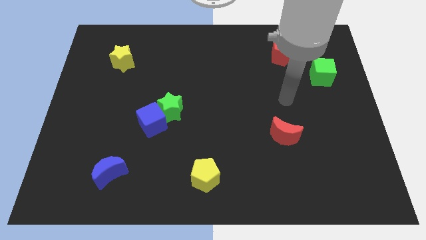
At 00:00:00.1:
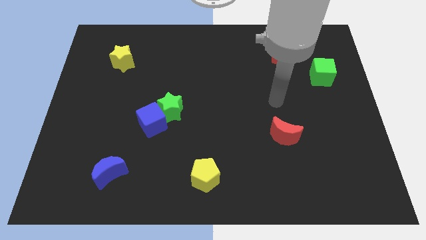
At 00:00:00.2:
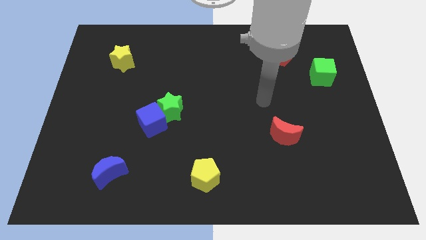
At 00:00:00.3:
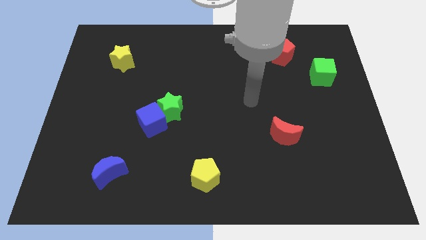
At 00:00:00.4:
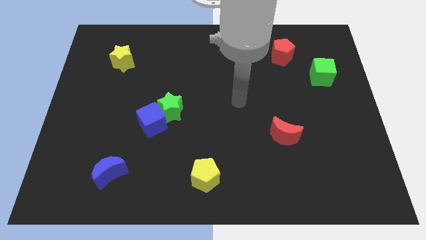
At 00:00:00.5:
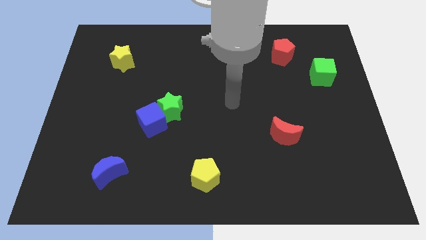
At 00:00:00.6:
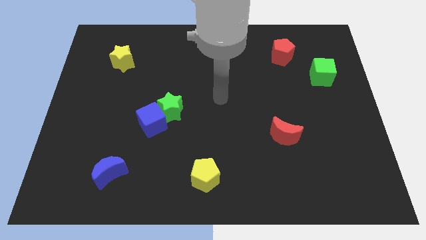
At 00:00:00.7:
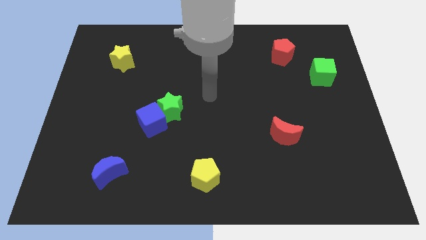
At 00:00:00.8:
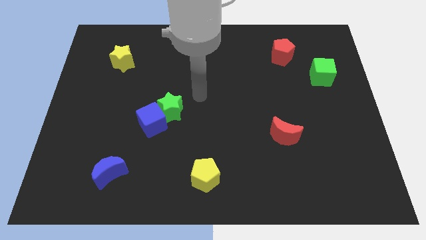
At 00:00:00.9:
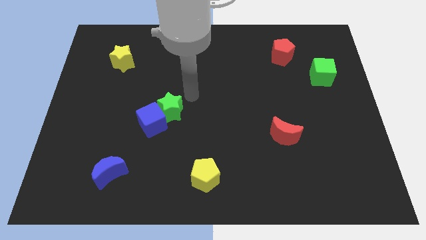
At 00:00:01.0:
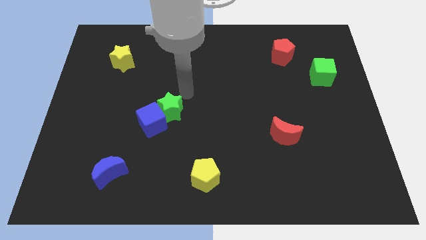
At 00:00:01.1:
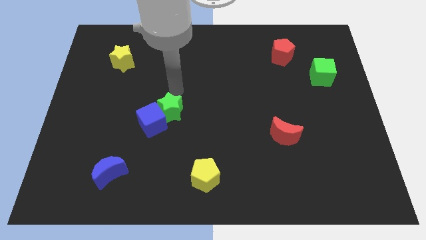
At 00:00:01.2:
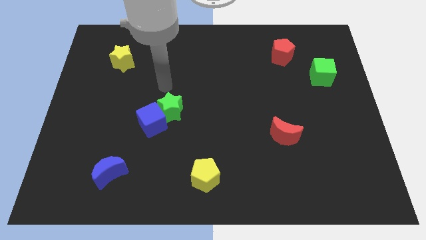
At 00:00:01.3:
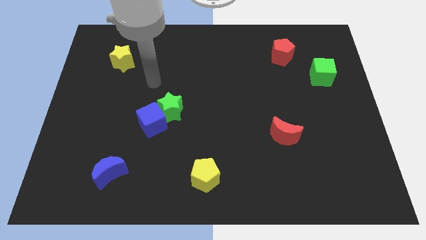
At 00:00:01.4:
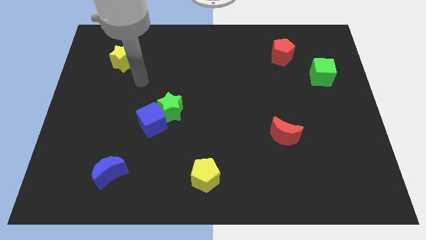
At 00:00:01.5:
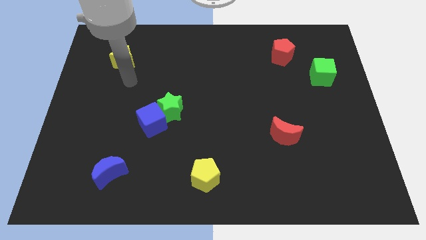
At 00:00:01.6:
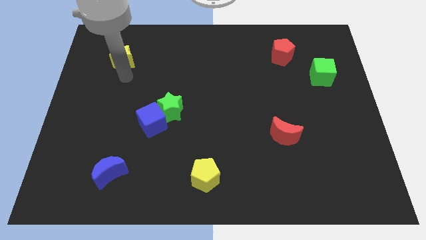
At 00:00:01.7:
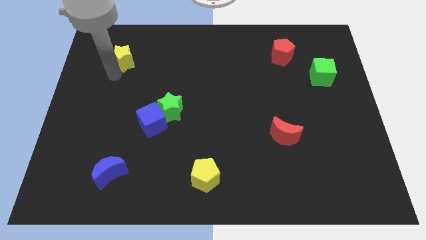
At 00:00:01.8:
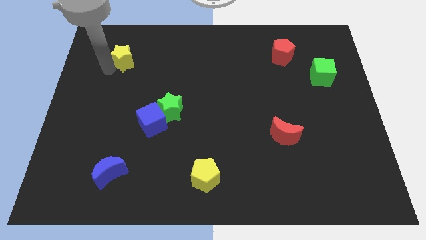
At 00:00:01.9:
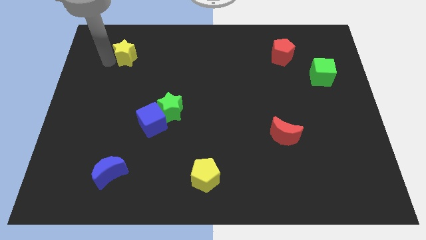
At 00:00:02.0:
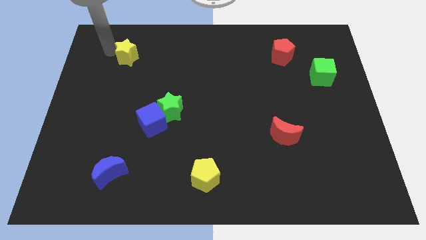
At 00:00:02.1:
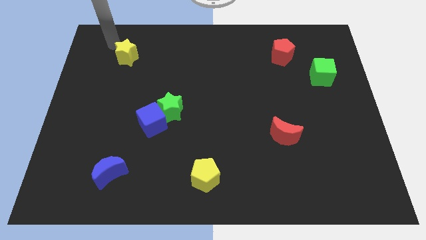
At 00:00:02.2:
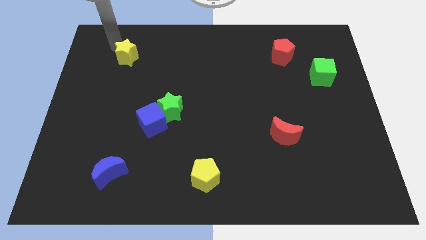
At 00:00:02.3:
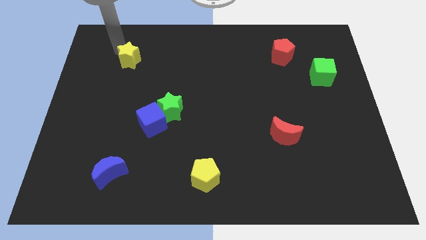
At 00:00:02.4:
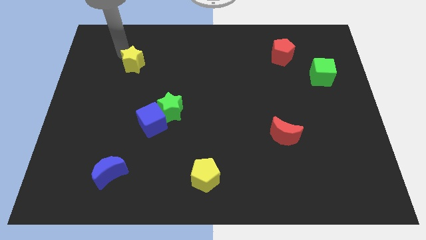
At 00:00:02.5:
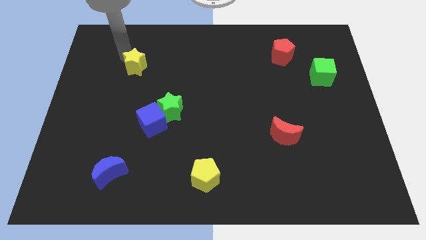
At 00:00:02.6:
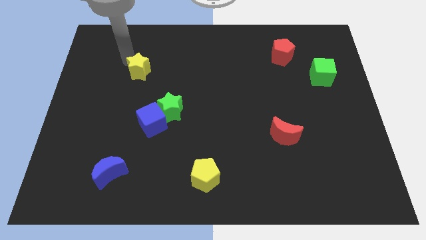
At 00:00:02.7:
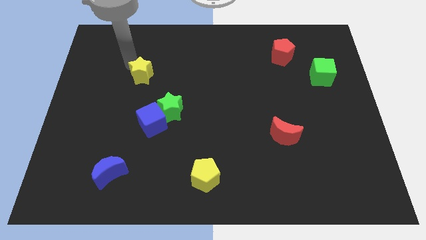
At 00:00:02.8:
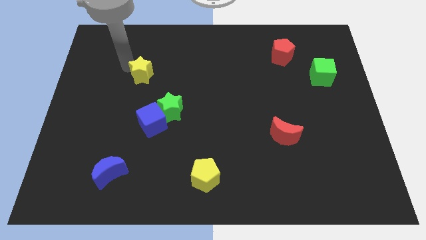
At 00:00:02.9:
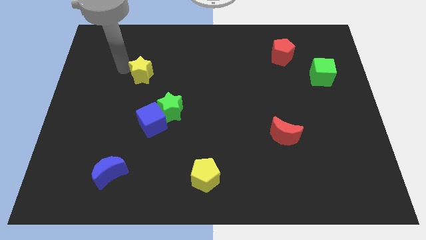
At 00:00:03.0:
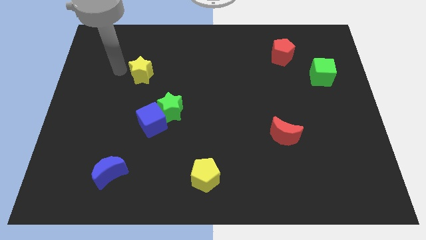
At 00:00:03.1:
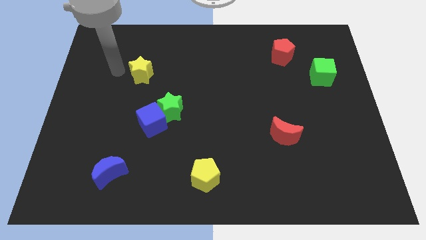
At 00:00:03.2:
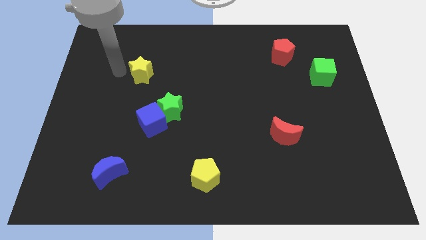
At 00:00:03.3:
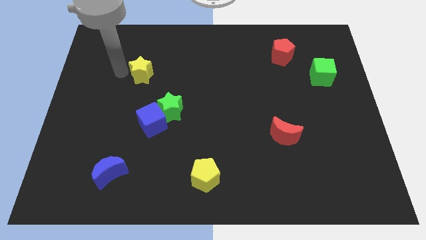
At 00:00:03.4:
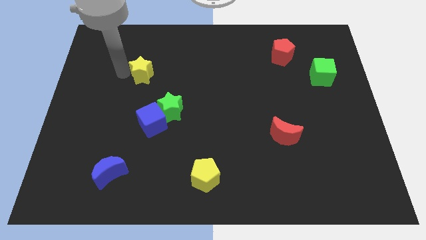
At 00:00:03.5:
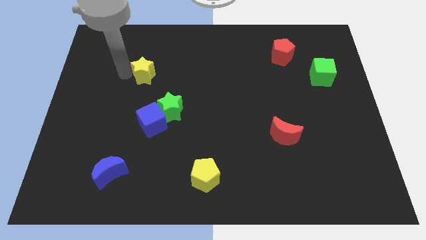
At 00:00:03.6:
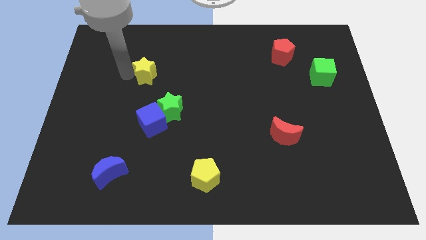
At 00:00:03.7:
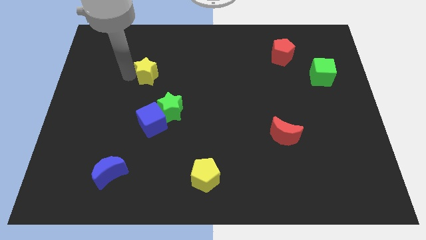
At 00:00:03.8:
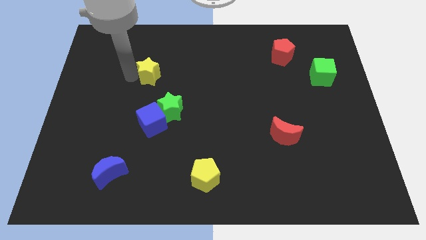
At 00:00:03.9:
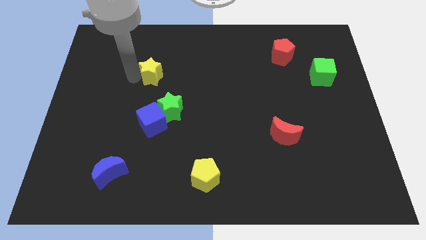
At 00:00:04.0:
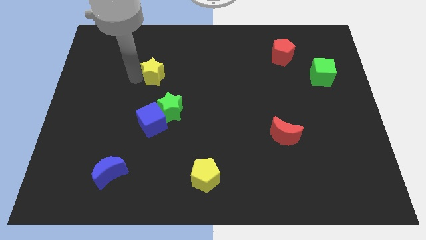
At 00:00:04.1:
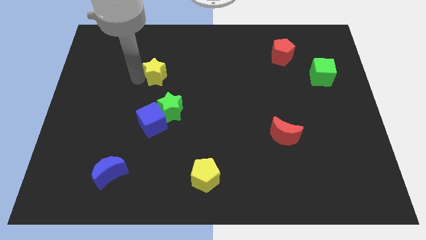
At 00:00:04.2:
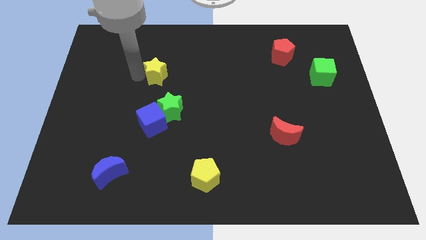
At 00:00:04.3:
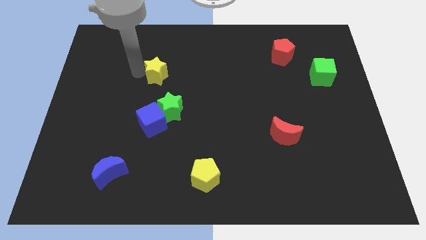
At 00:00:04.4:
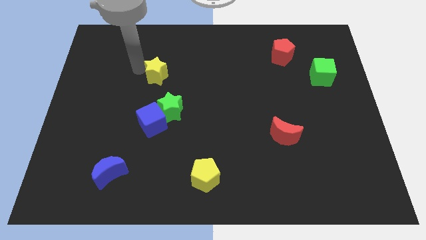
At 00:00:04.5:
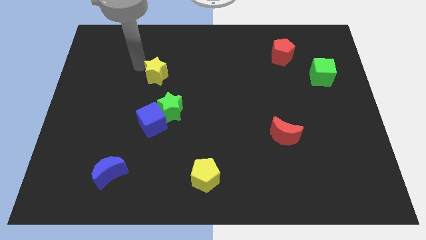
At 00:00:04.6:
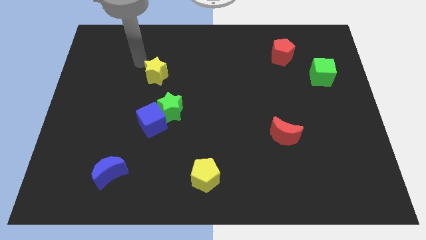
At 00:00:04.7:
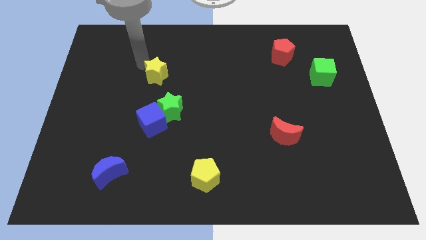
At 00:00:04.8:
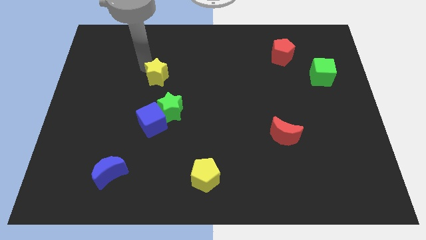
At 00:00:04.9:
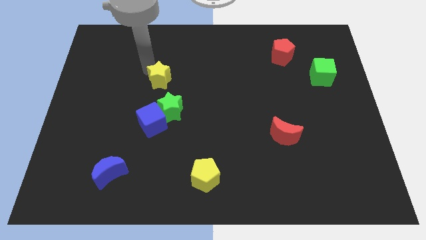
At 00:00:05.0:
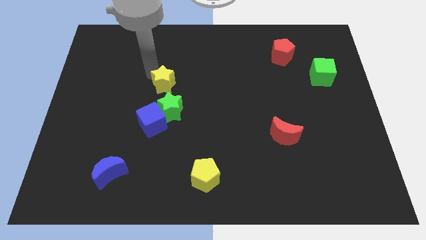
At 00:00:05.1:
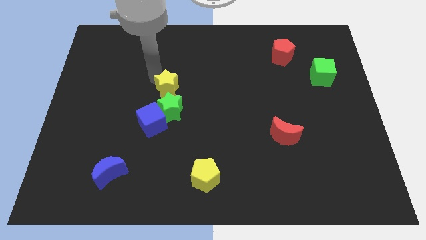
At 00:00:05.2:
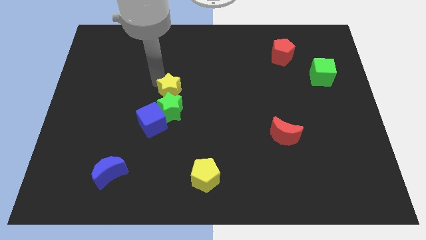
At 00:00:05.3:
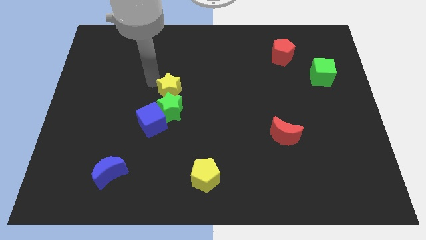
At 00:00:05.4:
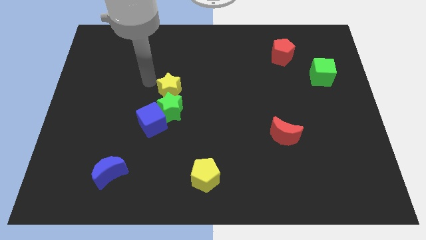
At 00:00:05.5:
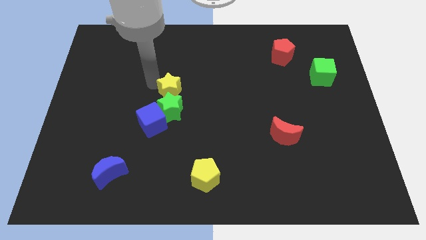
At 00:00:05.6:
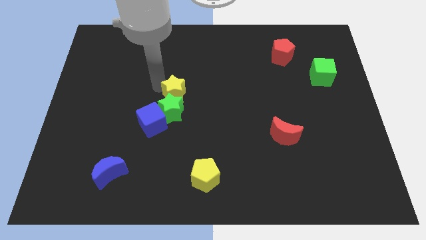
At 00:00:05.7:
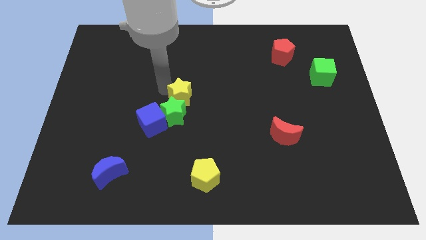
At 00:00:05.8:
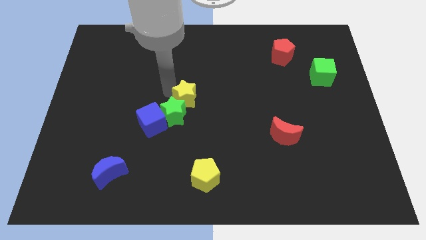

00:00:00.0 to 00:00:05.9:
slide the yellow star down and to the right

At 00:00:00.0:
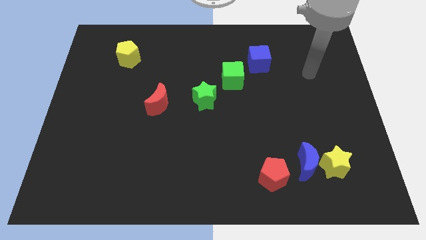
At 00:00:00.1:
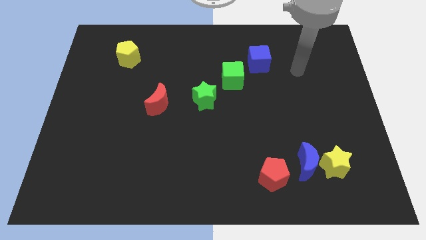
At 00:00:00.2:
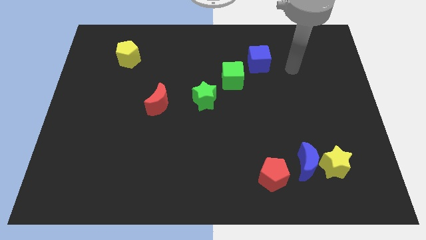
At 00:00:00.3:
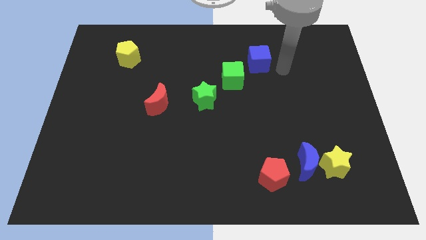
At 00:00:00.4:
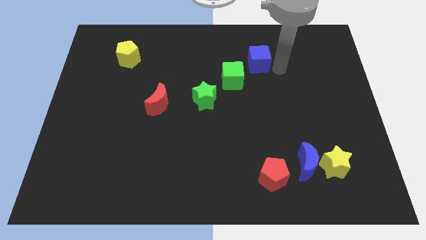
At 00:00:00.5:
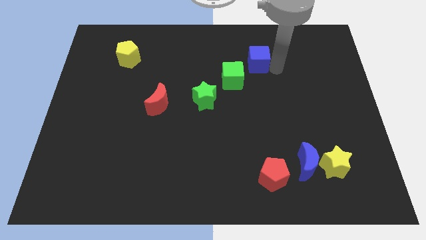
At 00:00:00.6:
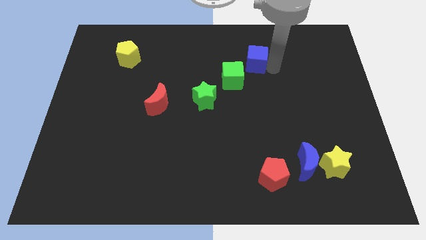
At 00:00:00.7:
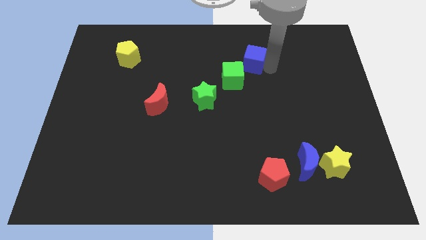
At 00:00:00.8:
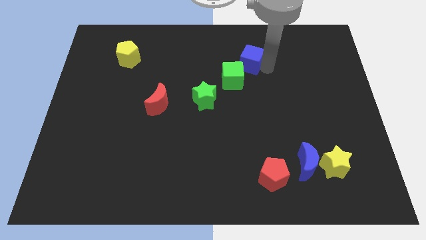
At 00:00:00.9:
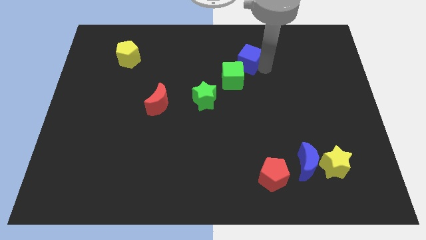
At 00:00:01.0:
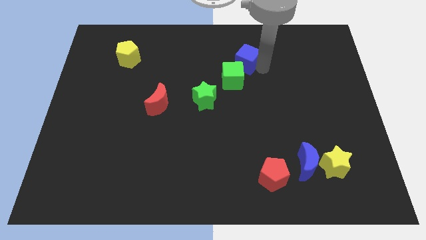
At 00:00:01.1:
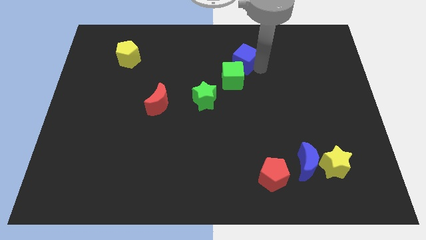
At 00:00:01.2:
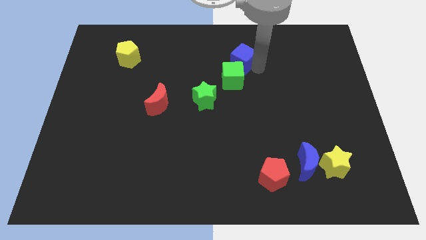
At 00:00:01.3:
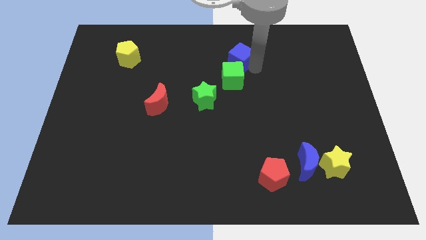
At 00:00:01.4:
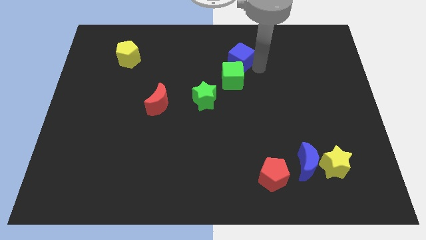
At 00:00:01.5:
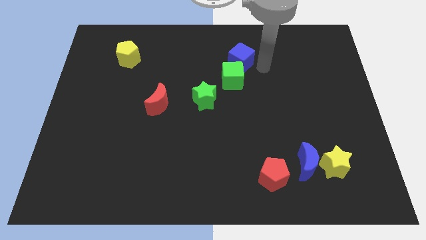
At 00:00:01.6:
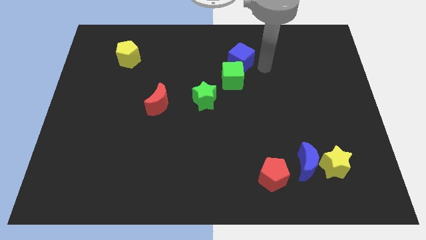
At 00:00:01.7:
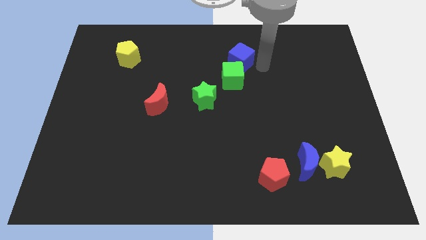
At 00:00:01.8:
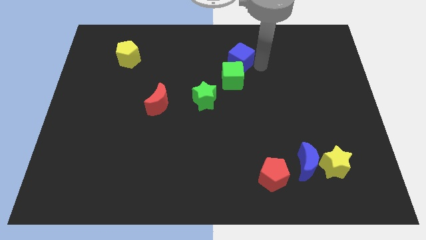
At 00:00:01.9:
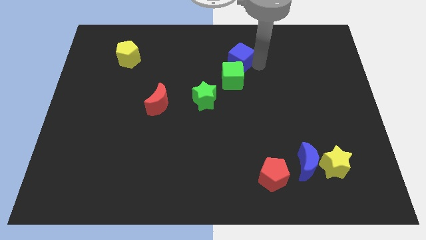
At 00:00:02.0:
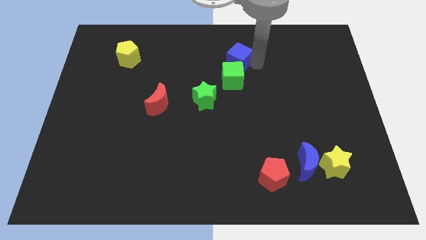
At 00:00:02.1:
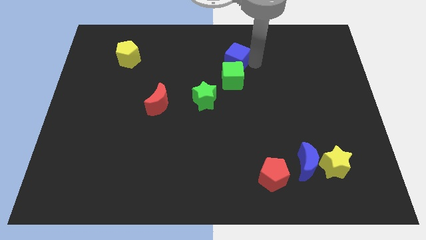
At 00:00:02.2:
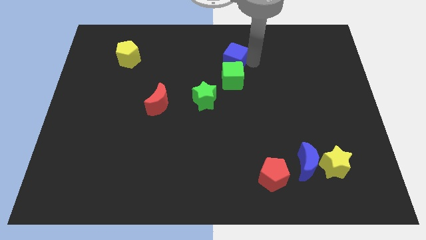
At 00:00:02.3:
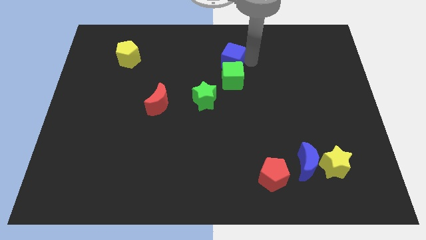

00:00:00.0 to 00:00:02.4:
slightly move the blue cube left
